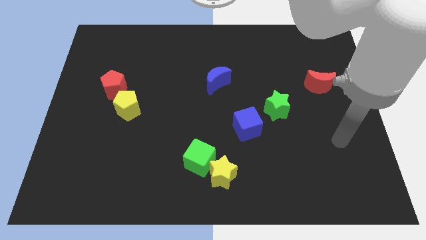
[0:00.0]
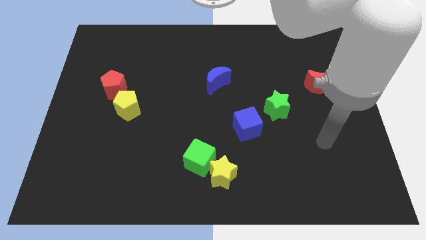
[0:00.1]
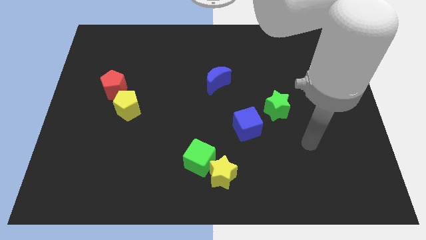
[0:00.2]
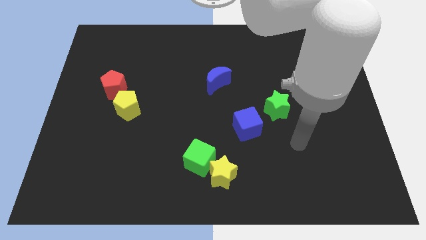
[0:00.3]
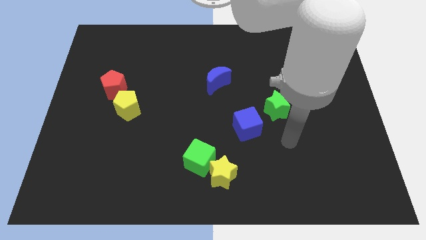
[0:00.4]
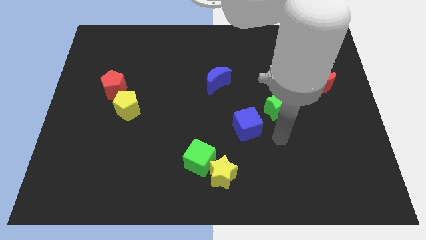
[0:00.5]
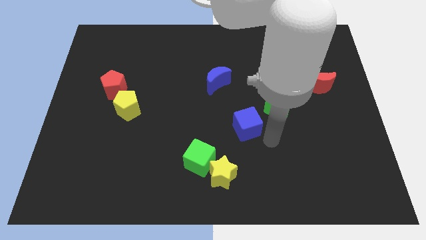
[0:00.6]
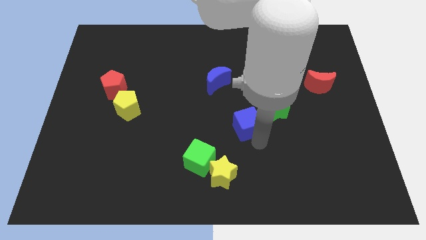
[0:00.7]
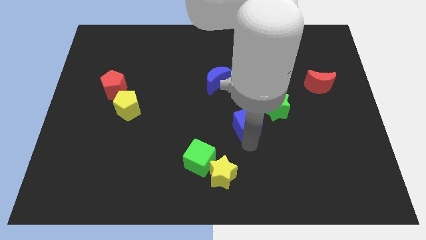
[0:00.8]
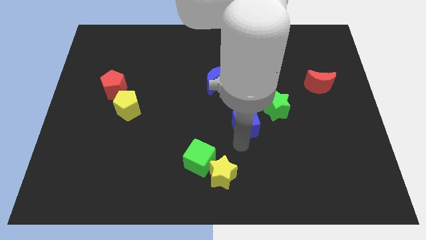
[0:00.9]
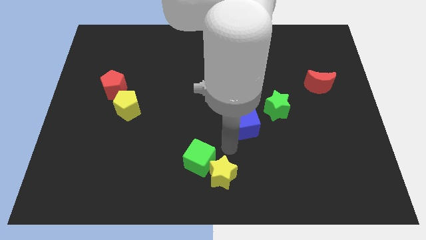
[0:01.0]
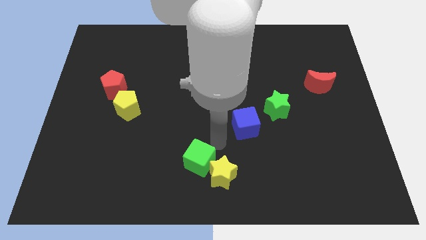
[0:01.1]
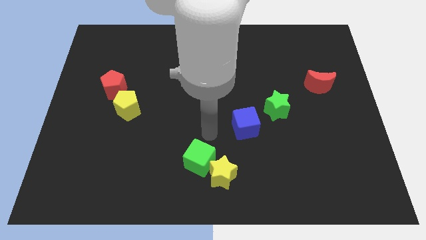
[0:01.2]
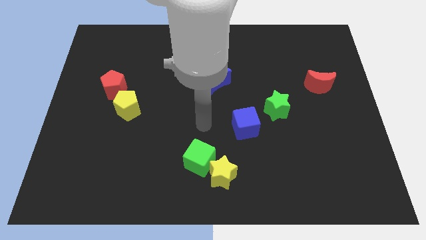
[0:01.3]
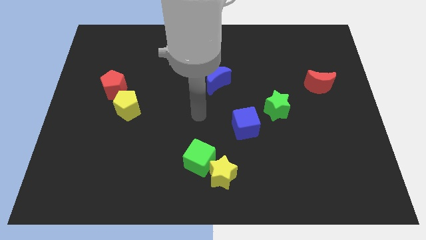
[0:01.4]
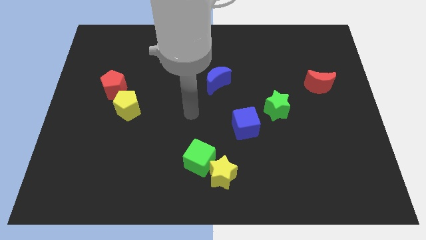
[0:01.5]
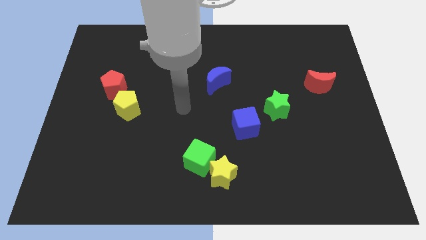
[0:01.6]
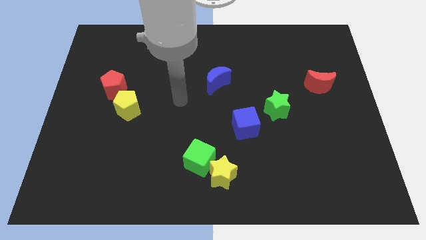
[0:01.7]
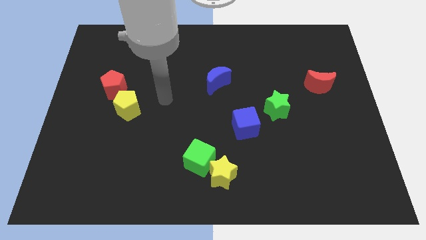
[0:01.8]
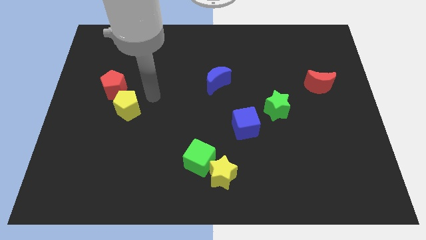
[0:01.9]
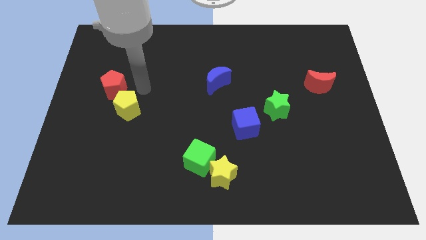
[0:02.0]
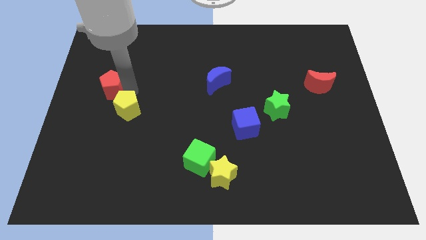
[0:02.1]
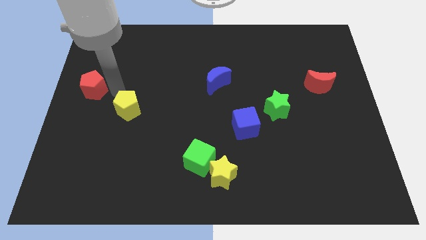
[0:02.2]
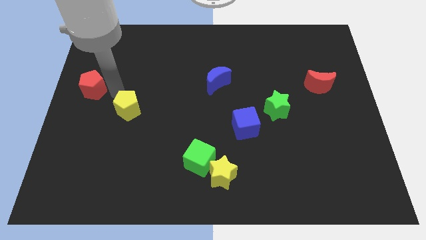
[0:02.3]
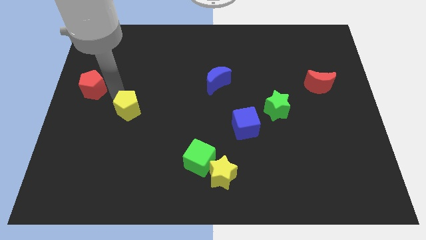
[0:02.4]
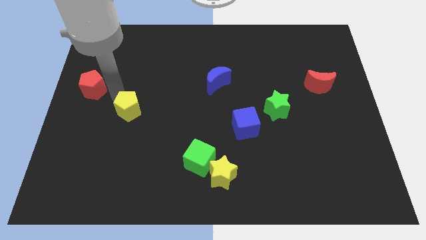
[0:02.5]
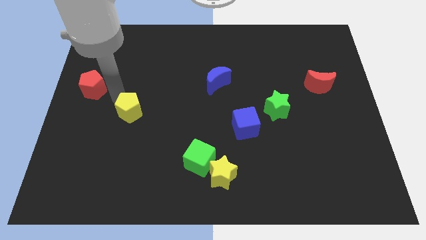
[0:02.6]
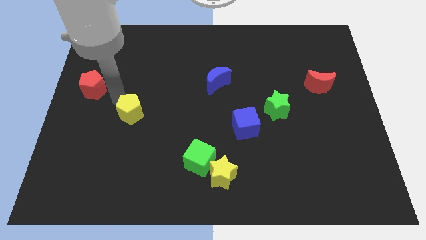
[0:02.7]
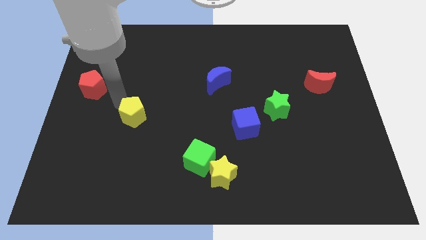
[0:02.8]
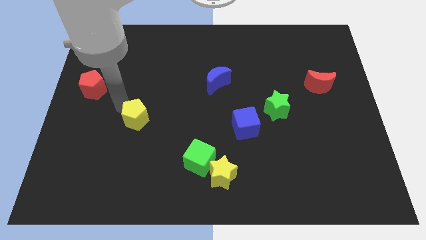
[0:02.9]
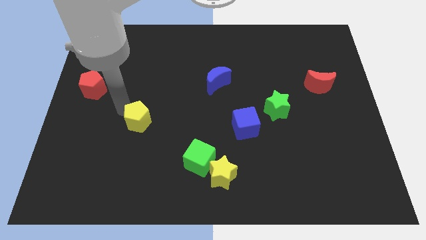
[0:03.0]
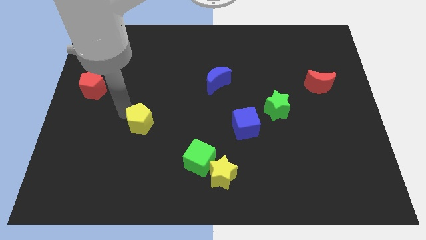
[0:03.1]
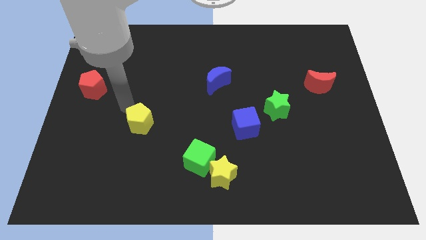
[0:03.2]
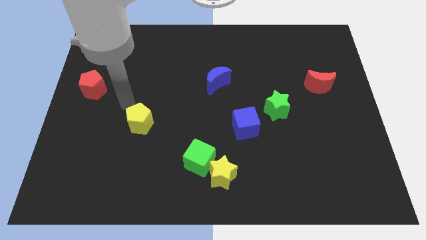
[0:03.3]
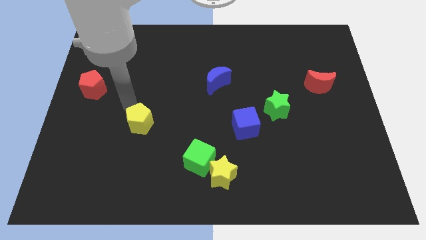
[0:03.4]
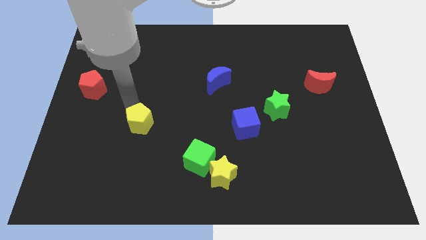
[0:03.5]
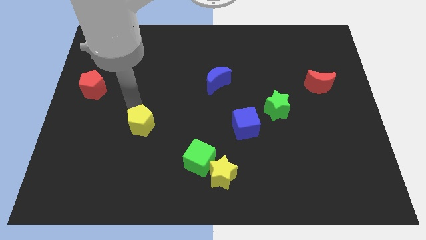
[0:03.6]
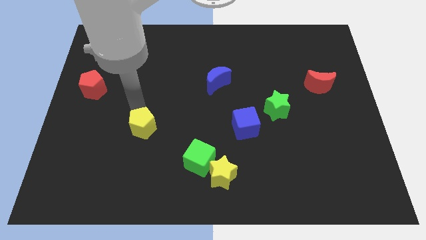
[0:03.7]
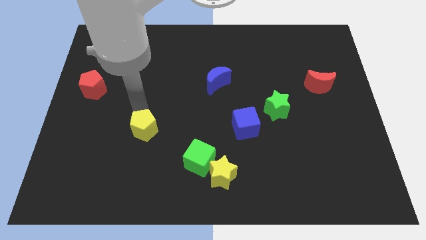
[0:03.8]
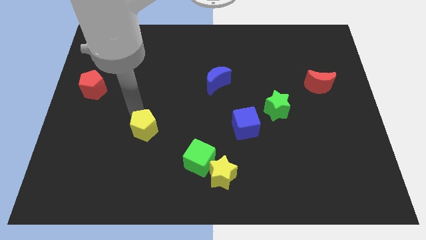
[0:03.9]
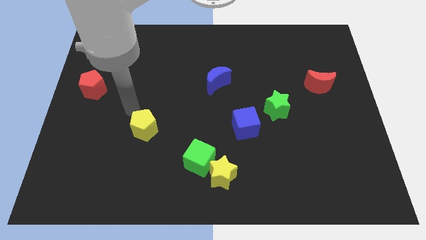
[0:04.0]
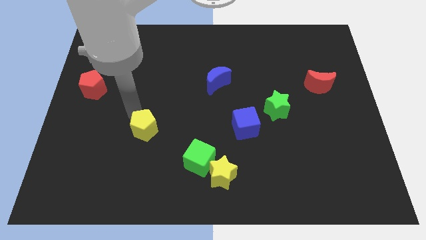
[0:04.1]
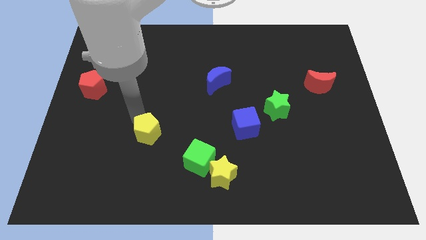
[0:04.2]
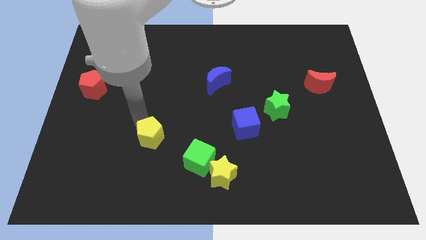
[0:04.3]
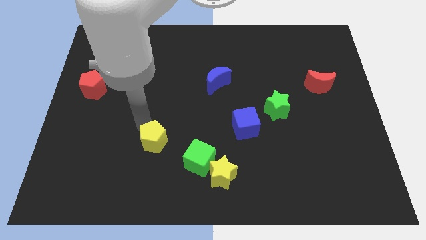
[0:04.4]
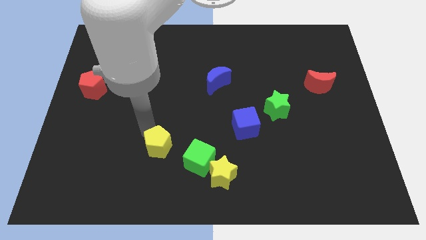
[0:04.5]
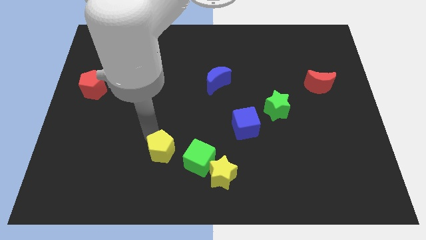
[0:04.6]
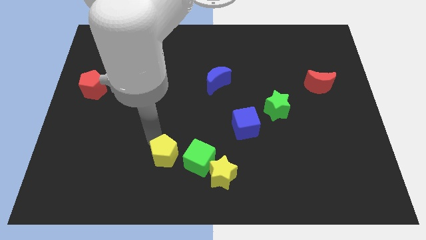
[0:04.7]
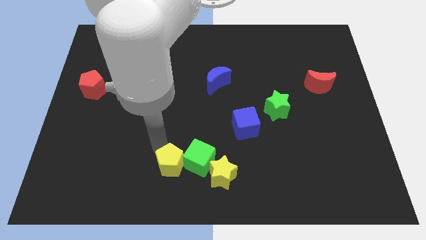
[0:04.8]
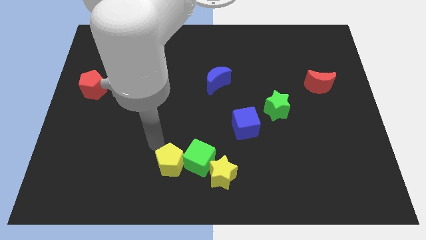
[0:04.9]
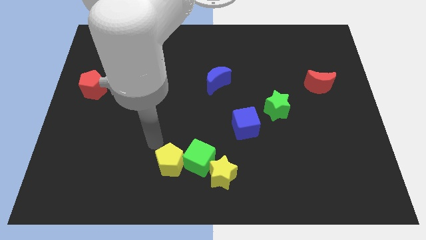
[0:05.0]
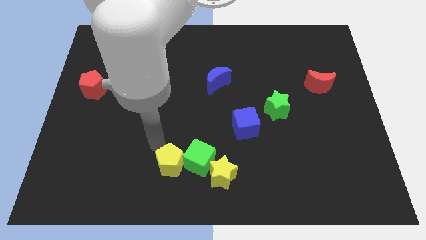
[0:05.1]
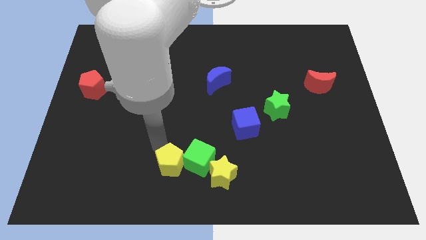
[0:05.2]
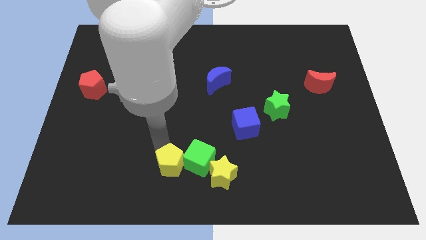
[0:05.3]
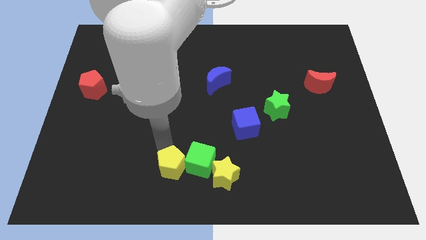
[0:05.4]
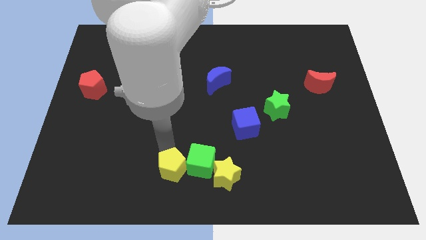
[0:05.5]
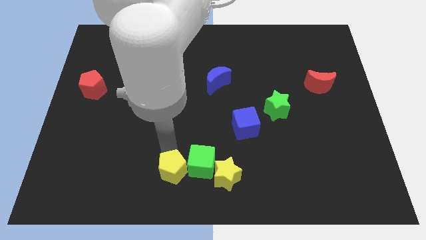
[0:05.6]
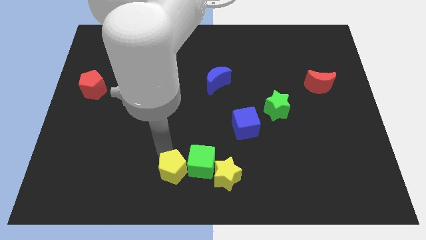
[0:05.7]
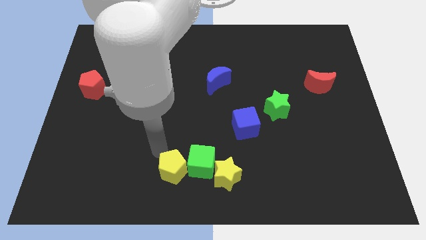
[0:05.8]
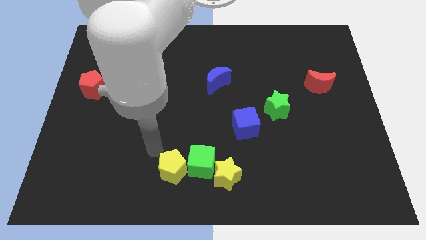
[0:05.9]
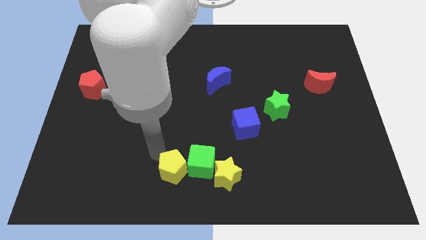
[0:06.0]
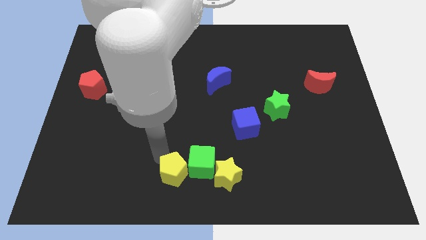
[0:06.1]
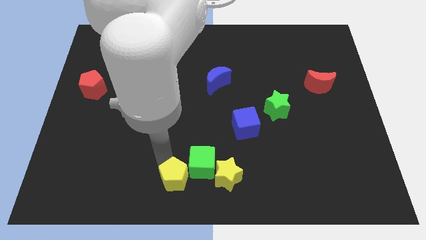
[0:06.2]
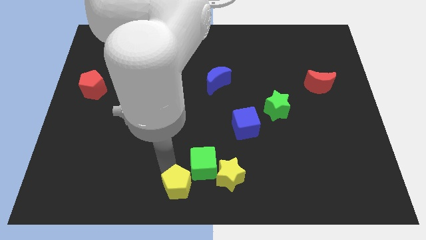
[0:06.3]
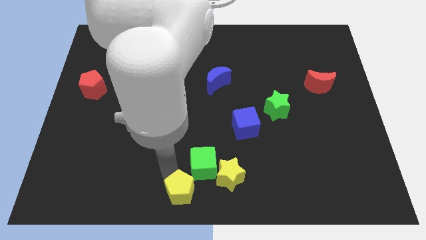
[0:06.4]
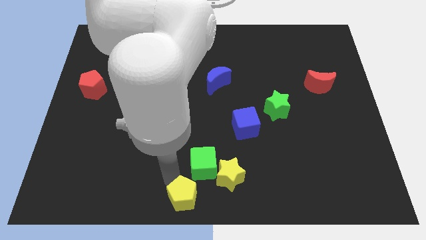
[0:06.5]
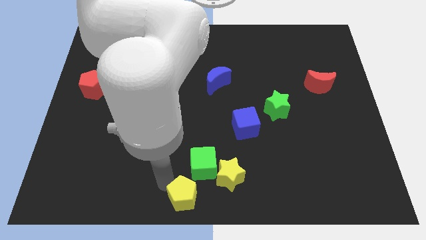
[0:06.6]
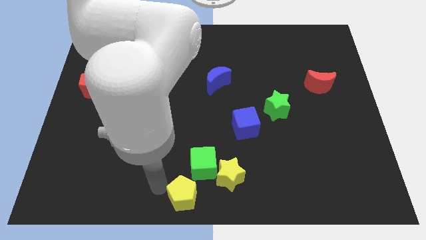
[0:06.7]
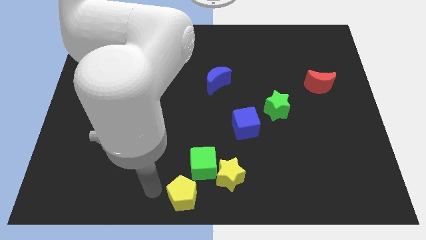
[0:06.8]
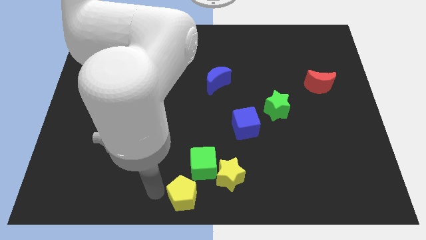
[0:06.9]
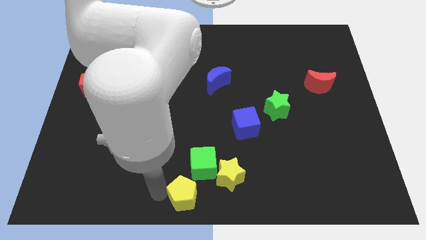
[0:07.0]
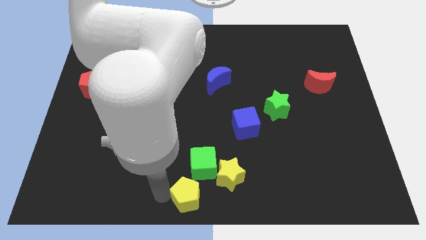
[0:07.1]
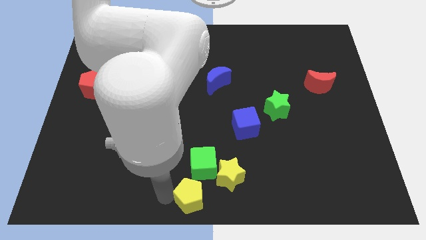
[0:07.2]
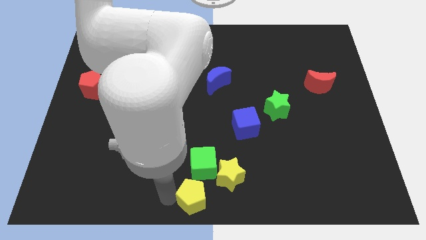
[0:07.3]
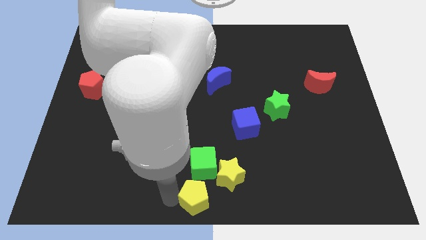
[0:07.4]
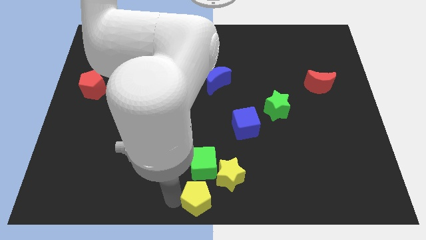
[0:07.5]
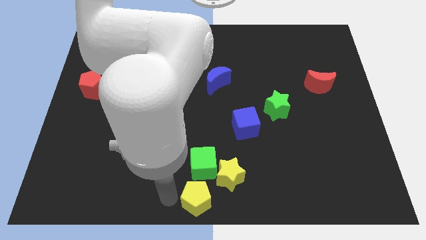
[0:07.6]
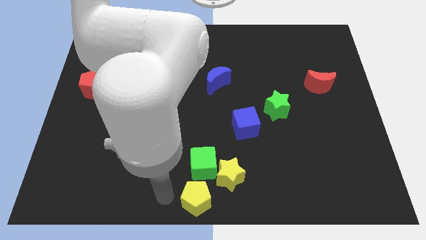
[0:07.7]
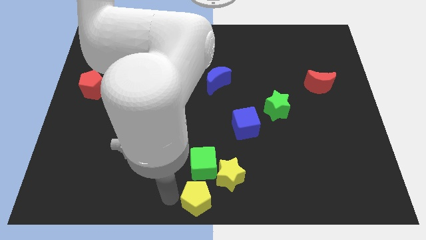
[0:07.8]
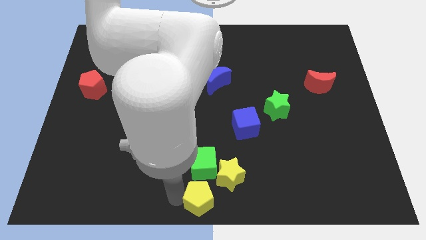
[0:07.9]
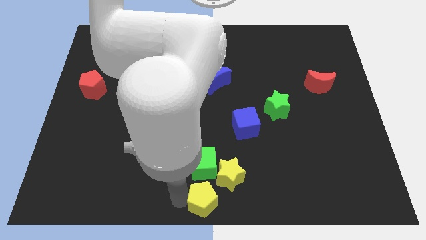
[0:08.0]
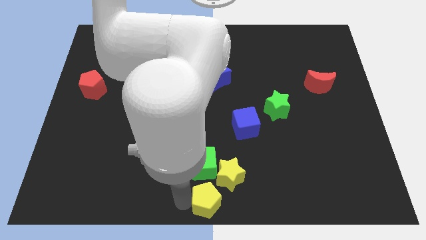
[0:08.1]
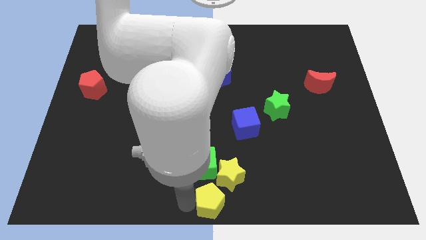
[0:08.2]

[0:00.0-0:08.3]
put the yellow pentagon to the bottom right of the green cube
